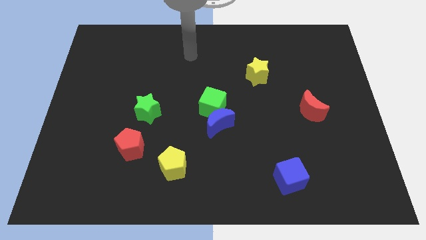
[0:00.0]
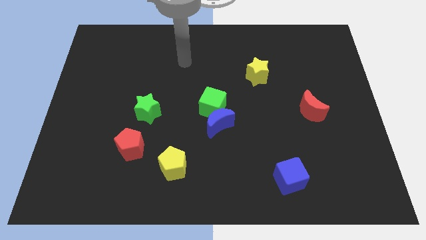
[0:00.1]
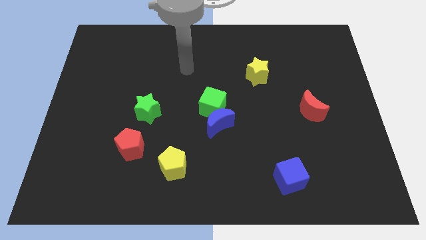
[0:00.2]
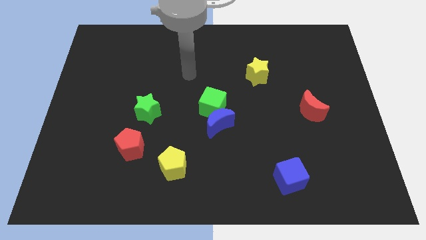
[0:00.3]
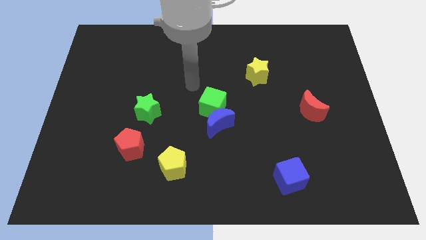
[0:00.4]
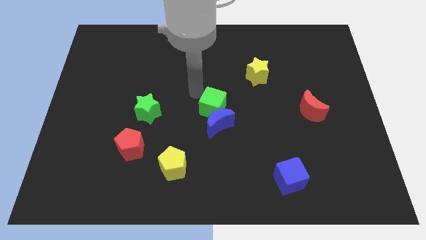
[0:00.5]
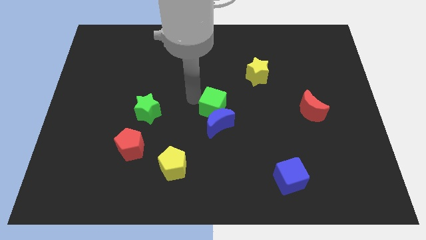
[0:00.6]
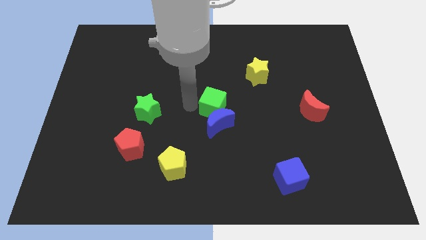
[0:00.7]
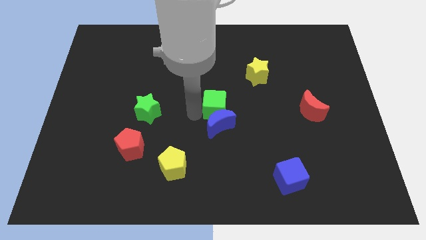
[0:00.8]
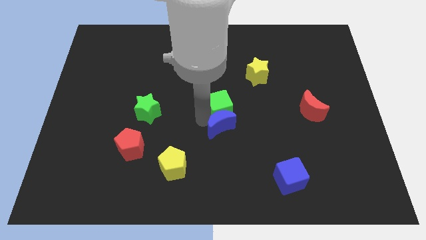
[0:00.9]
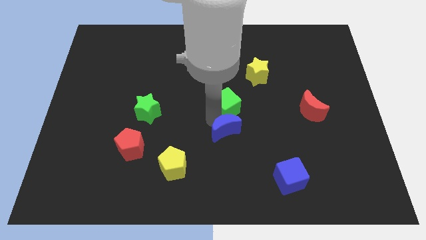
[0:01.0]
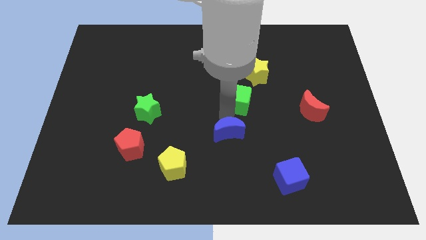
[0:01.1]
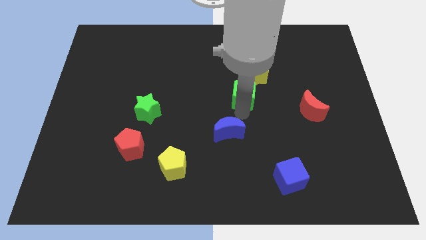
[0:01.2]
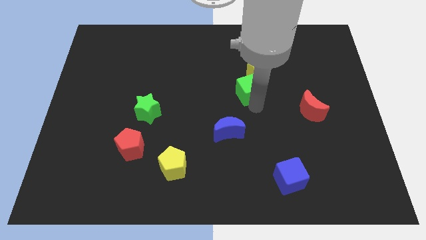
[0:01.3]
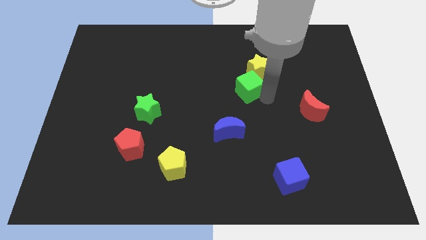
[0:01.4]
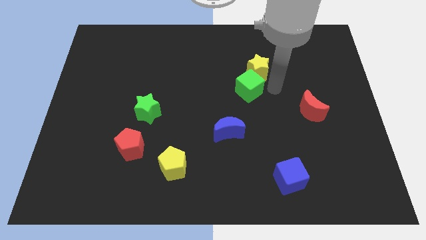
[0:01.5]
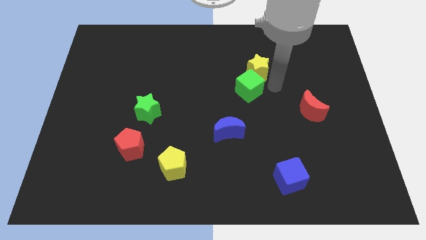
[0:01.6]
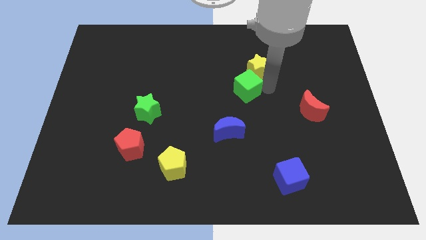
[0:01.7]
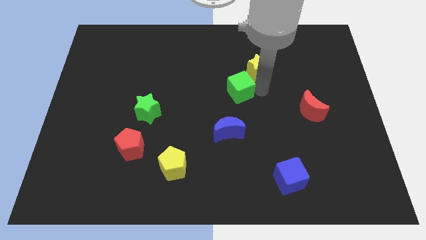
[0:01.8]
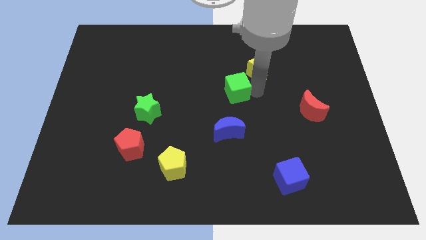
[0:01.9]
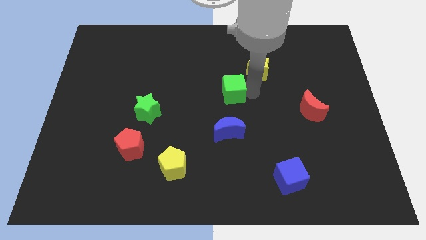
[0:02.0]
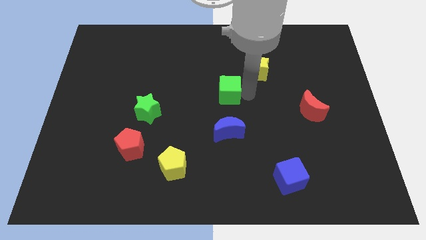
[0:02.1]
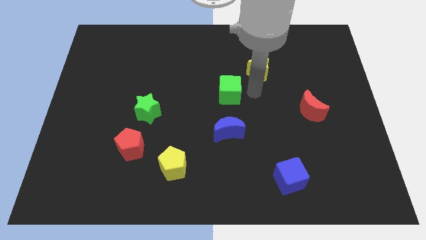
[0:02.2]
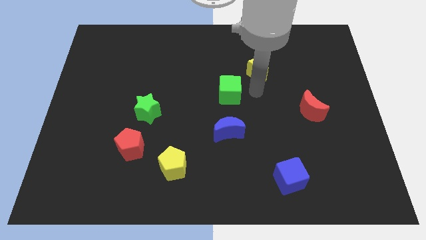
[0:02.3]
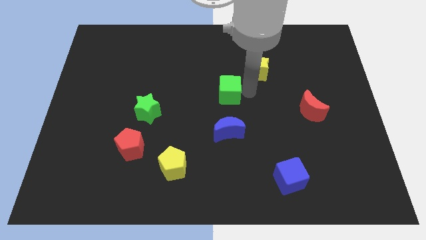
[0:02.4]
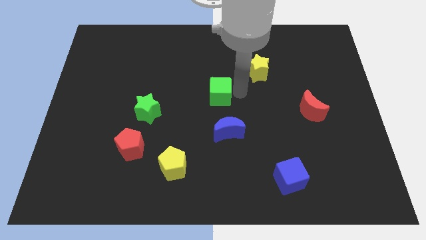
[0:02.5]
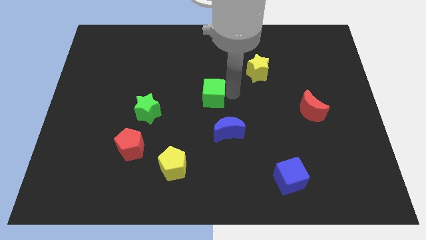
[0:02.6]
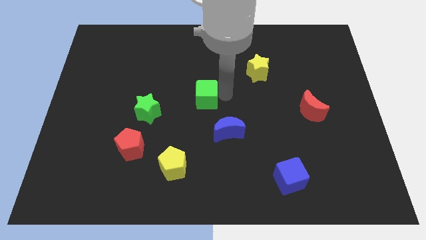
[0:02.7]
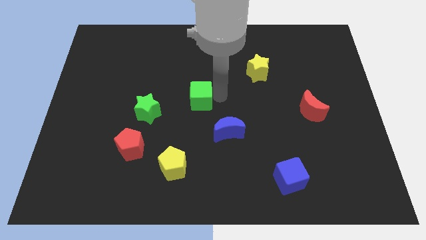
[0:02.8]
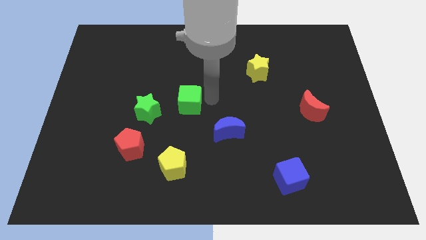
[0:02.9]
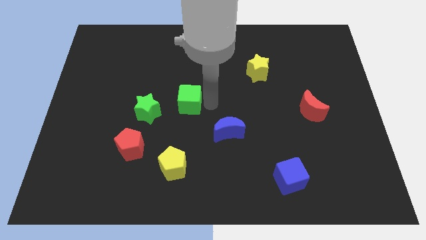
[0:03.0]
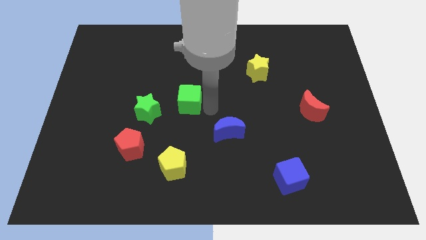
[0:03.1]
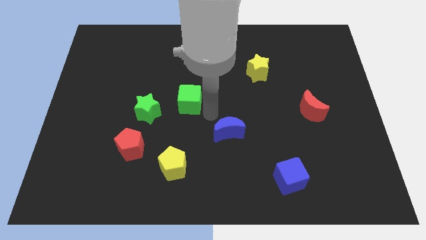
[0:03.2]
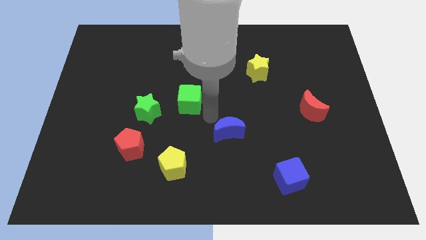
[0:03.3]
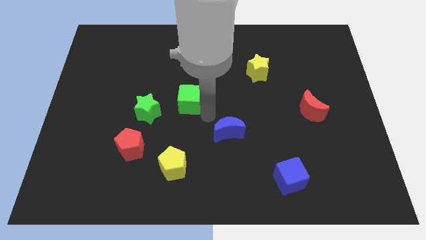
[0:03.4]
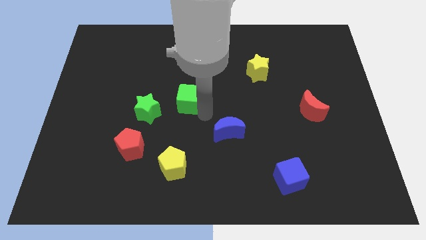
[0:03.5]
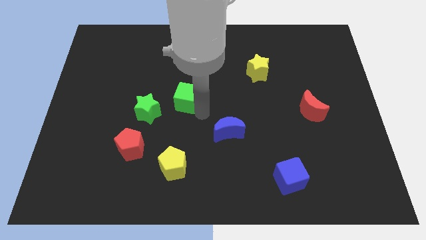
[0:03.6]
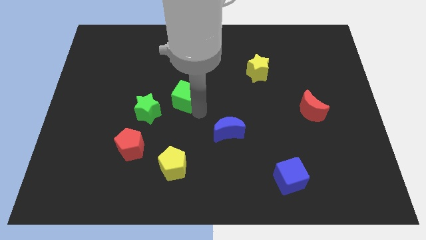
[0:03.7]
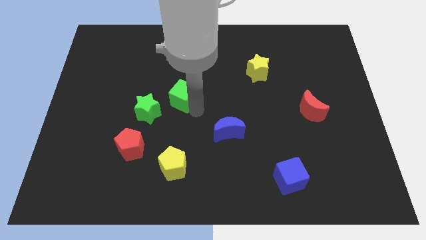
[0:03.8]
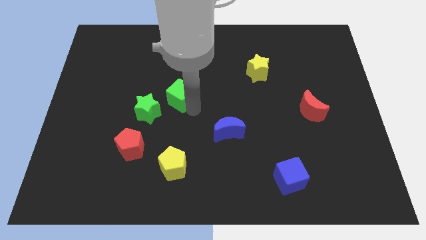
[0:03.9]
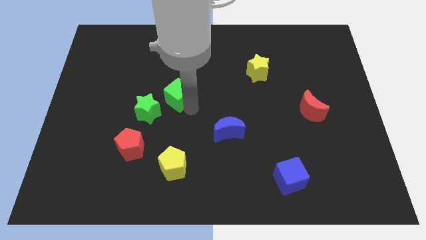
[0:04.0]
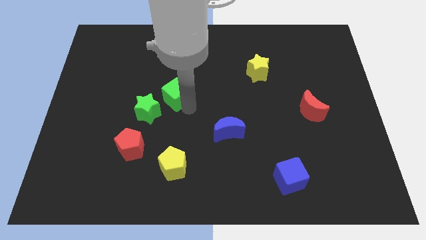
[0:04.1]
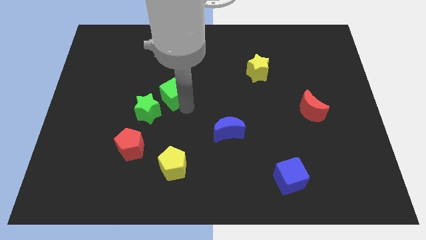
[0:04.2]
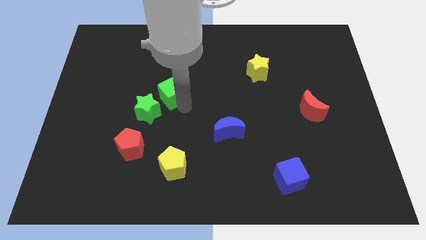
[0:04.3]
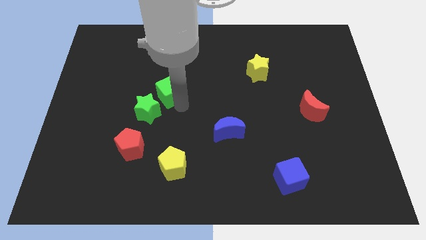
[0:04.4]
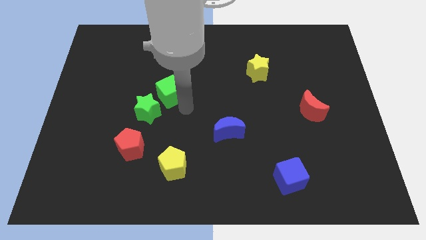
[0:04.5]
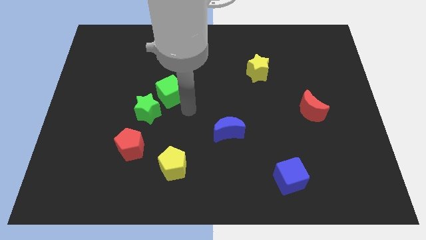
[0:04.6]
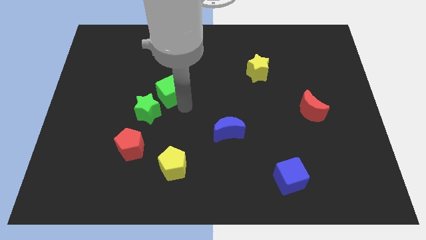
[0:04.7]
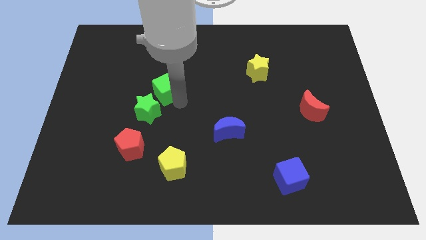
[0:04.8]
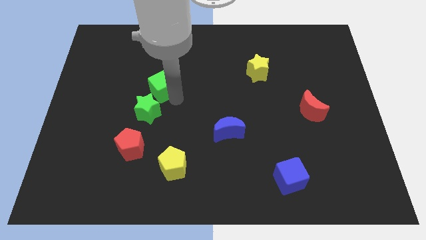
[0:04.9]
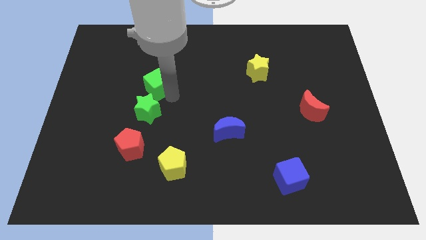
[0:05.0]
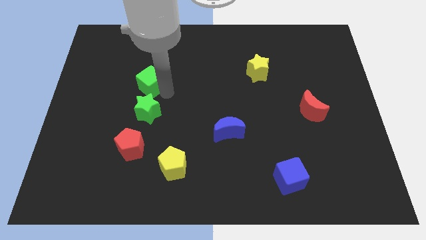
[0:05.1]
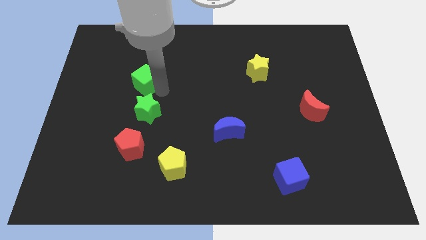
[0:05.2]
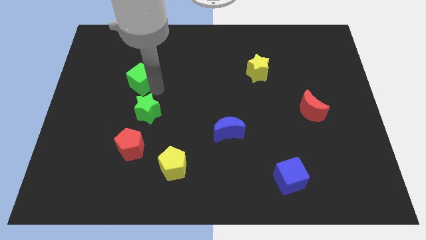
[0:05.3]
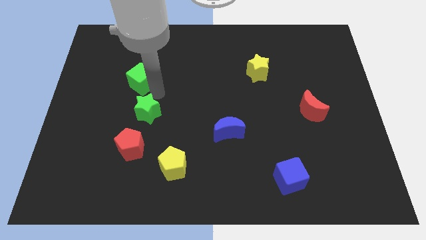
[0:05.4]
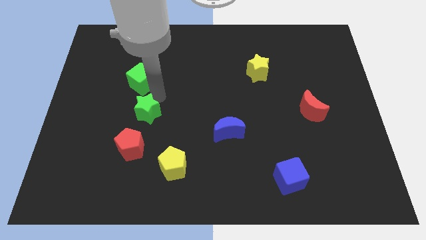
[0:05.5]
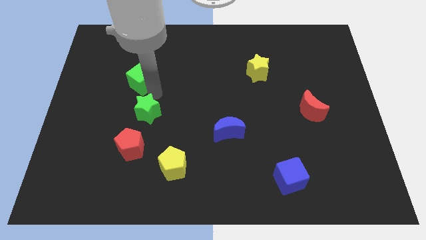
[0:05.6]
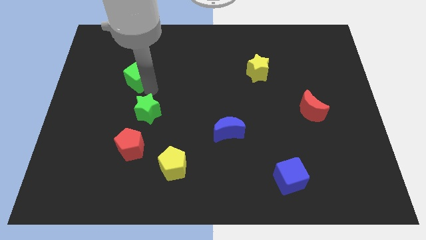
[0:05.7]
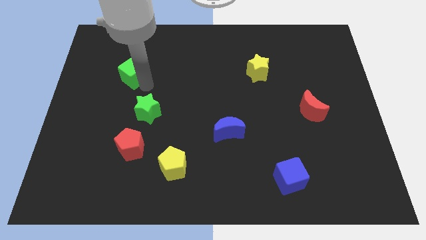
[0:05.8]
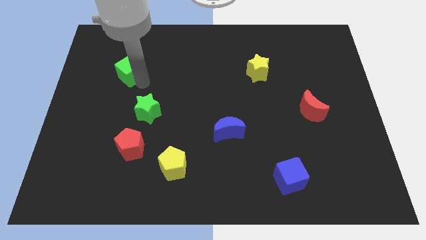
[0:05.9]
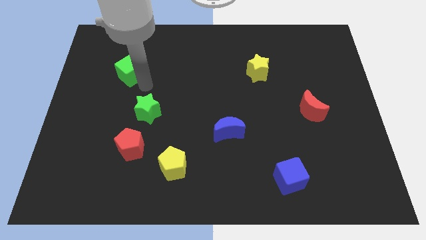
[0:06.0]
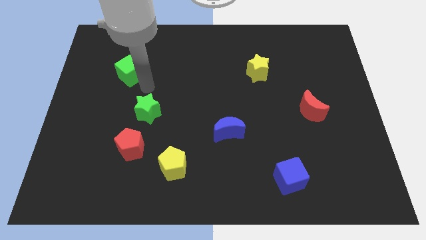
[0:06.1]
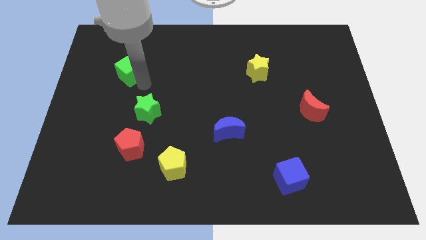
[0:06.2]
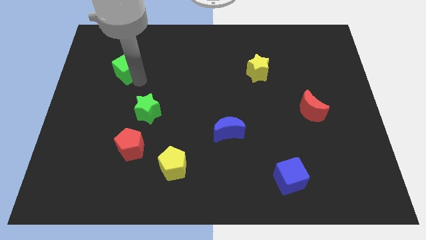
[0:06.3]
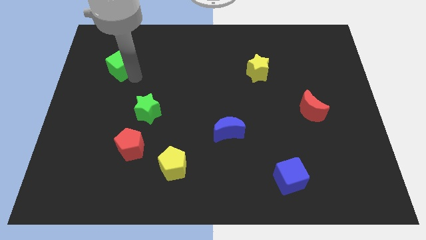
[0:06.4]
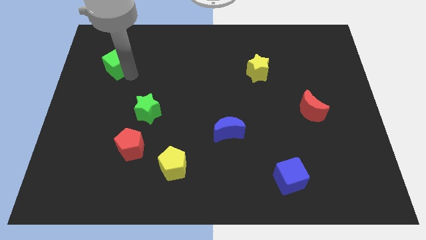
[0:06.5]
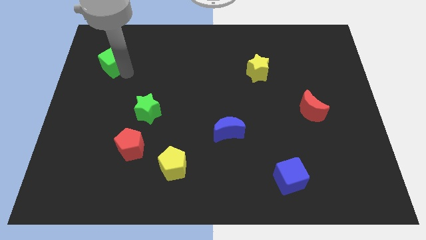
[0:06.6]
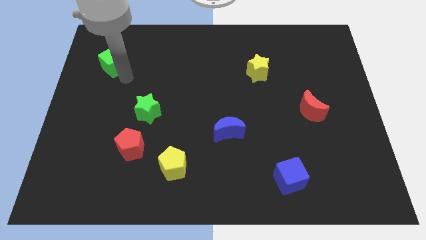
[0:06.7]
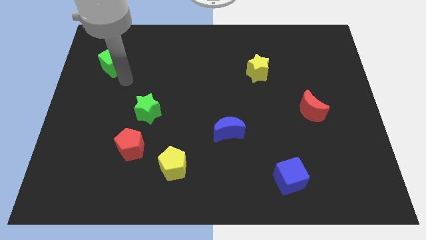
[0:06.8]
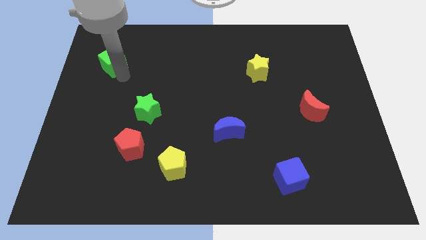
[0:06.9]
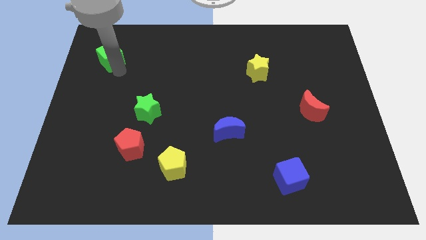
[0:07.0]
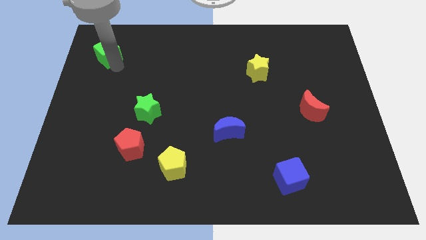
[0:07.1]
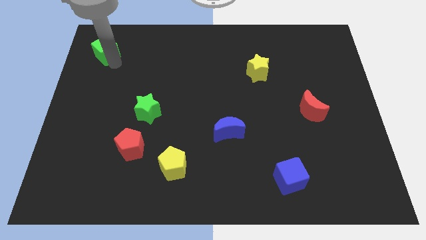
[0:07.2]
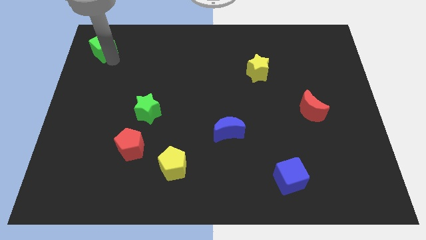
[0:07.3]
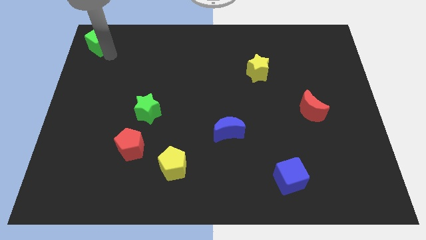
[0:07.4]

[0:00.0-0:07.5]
slide the green cube to the top left
